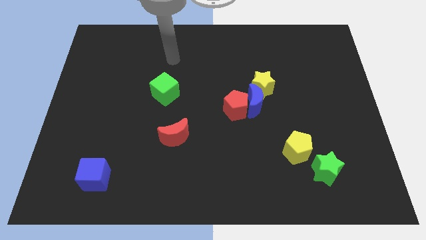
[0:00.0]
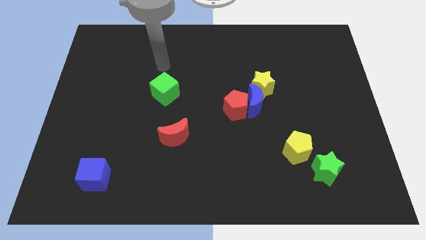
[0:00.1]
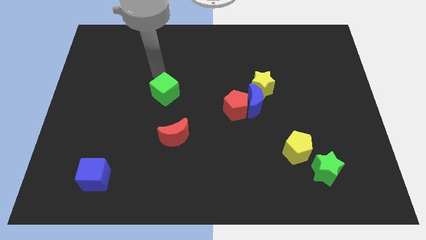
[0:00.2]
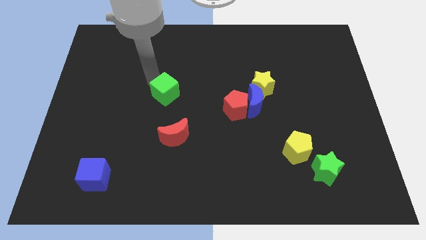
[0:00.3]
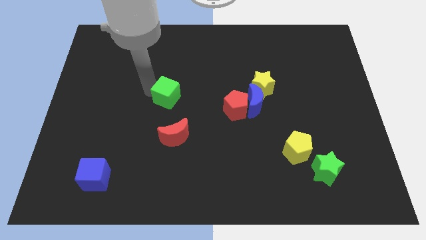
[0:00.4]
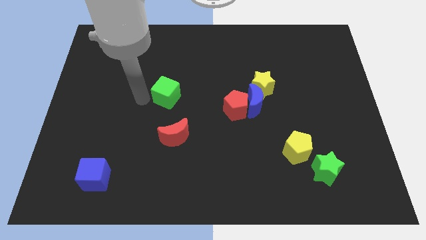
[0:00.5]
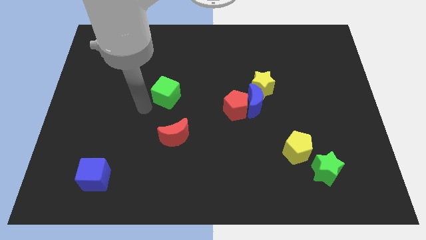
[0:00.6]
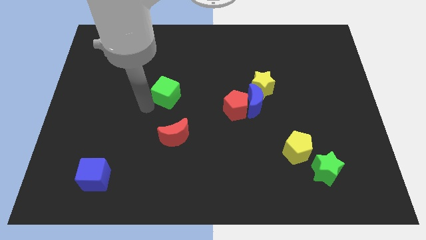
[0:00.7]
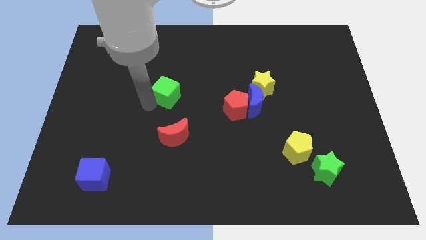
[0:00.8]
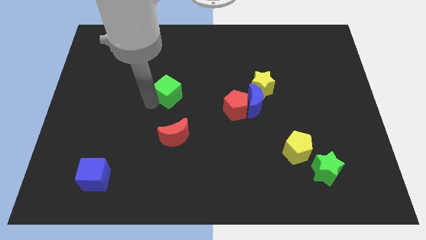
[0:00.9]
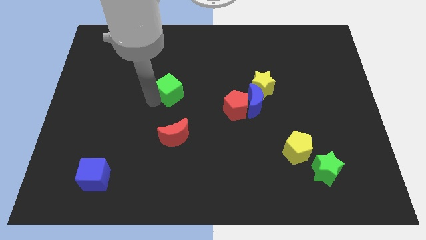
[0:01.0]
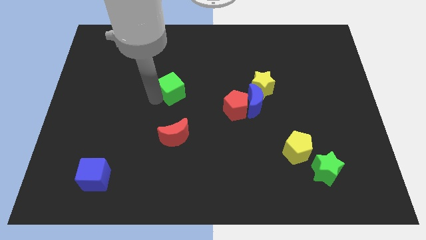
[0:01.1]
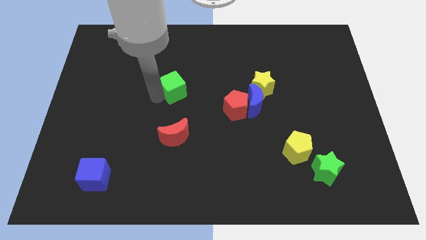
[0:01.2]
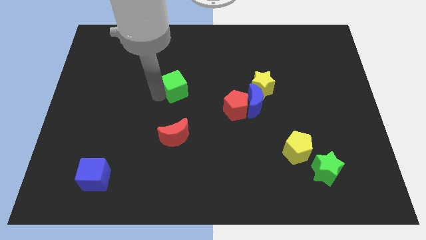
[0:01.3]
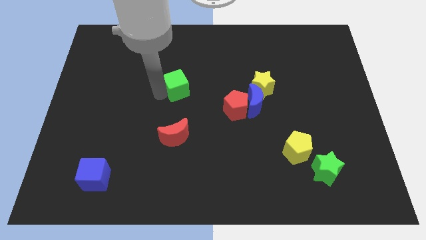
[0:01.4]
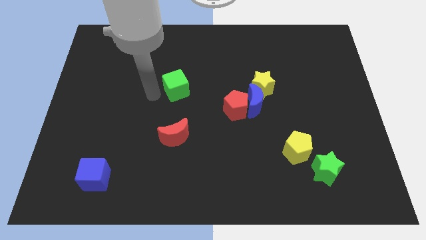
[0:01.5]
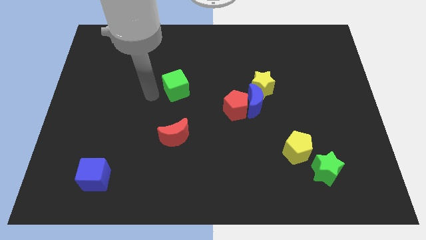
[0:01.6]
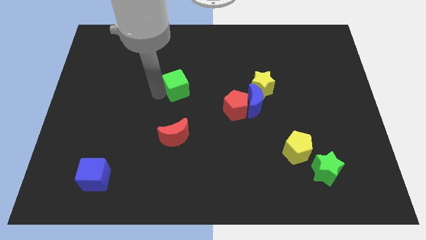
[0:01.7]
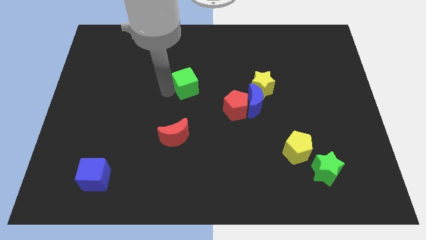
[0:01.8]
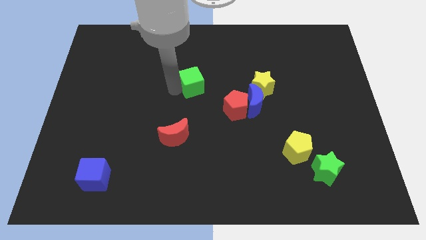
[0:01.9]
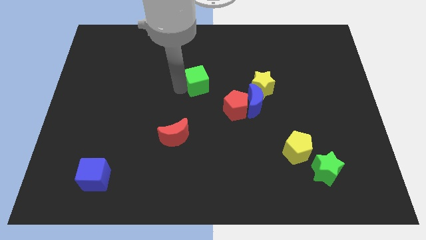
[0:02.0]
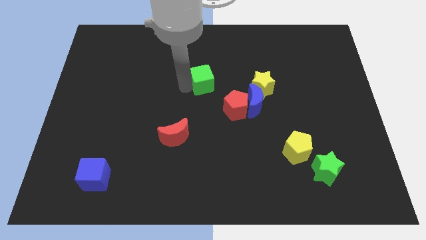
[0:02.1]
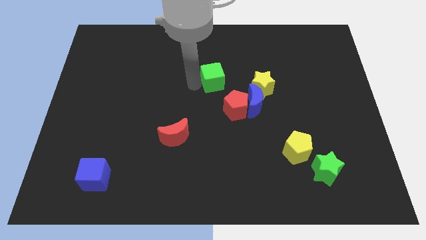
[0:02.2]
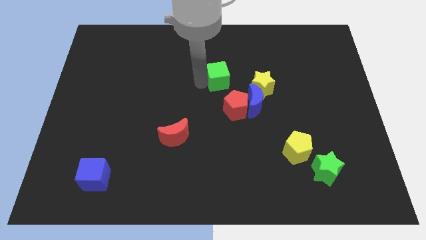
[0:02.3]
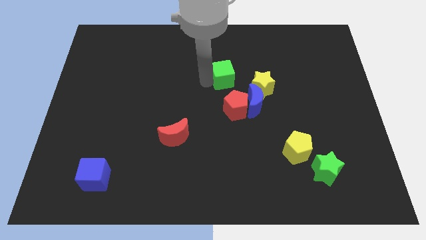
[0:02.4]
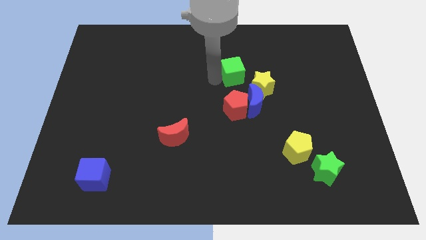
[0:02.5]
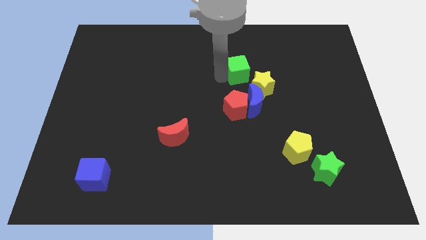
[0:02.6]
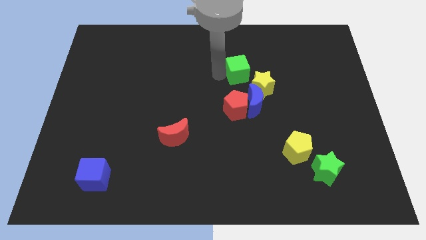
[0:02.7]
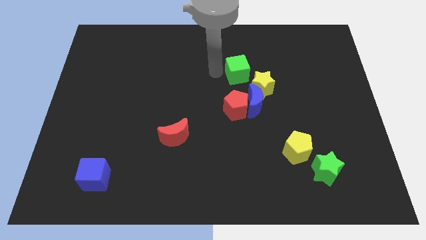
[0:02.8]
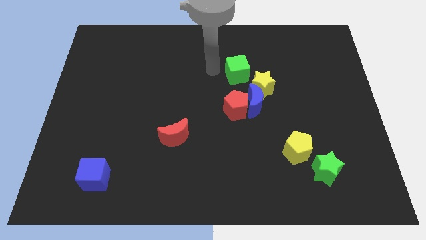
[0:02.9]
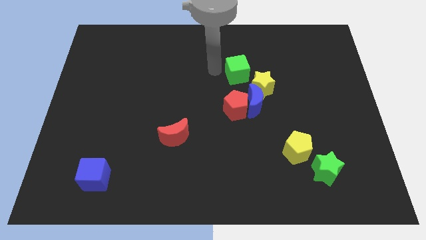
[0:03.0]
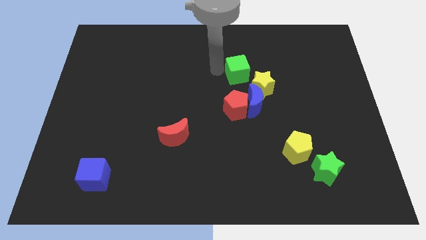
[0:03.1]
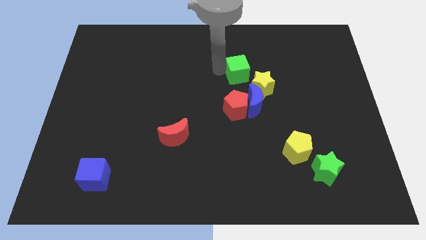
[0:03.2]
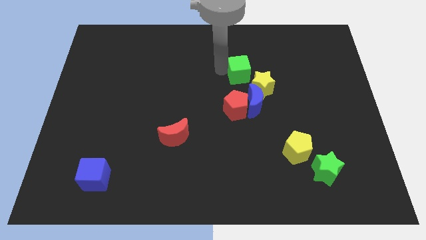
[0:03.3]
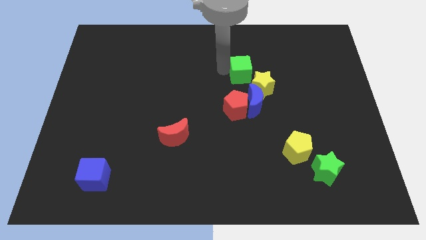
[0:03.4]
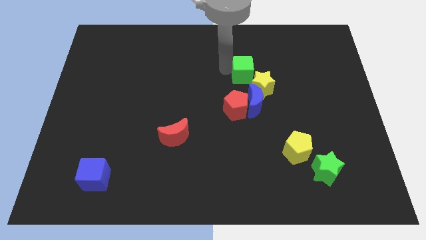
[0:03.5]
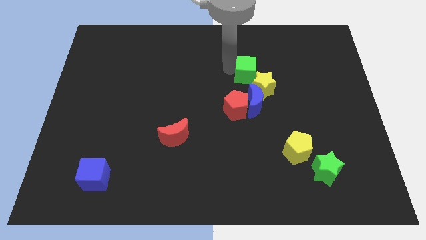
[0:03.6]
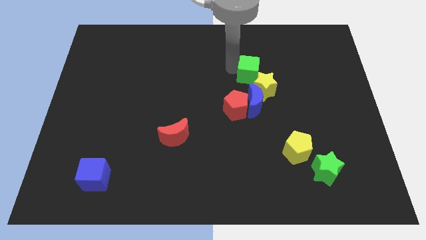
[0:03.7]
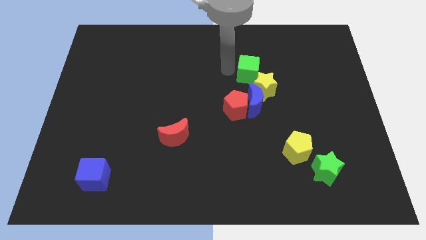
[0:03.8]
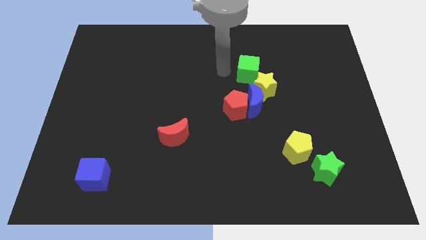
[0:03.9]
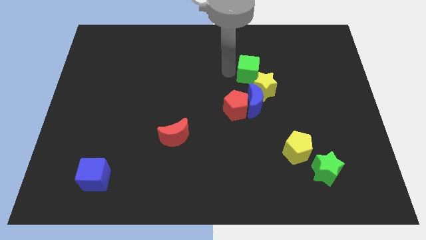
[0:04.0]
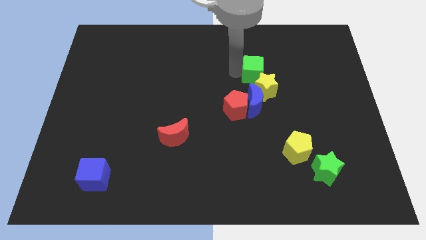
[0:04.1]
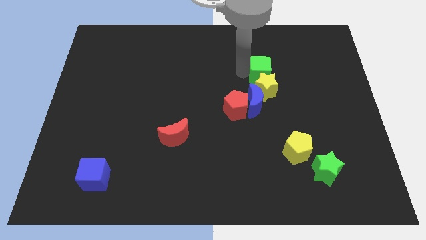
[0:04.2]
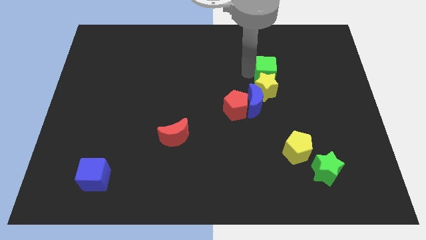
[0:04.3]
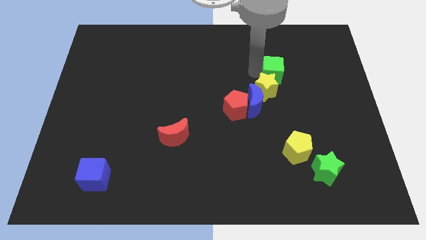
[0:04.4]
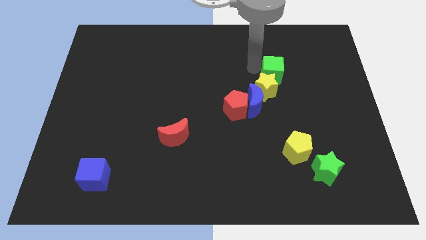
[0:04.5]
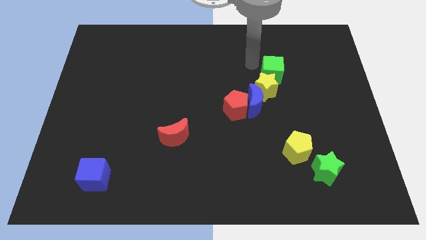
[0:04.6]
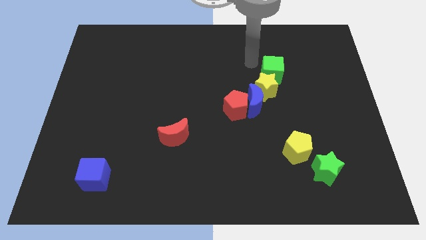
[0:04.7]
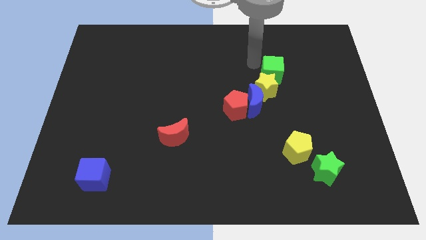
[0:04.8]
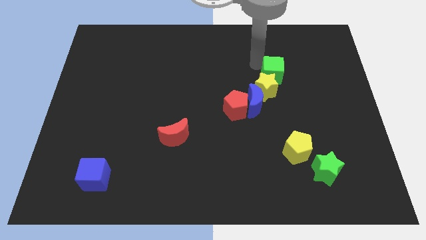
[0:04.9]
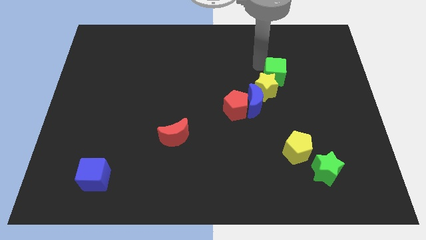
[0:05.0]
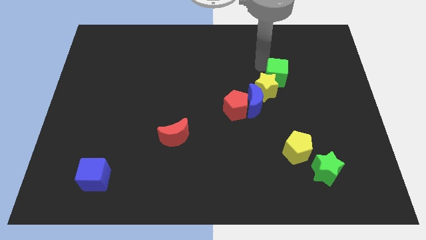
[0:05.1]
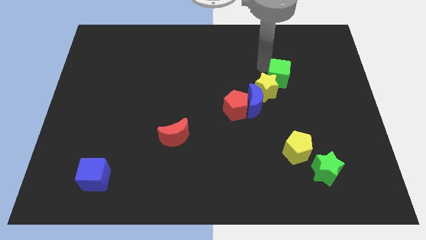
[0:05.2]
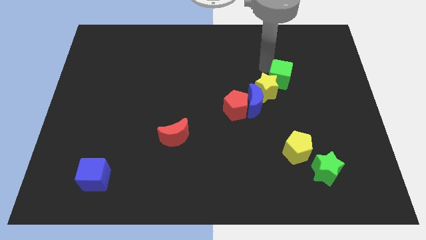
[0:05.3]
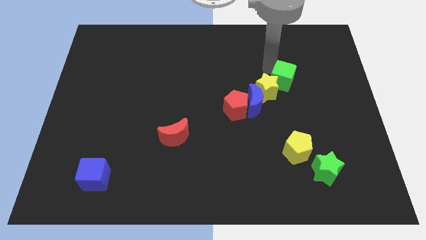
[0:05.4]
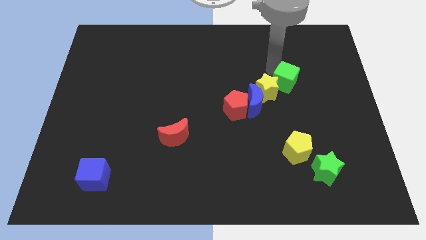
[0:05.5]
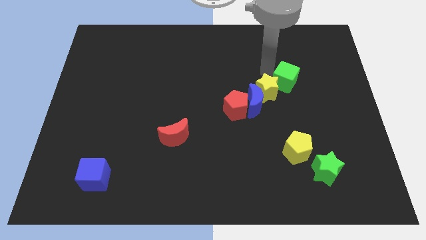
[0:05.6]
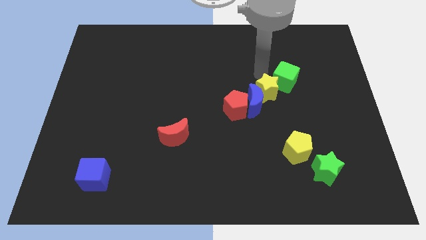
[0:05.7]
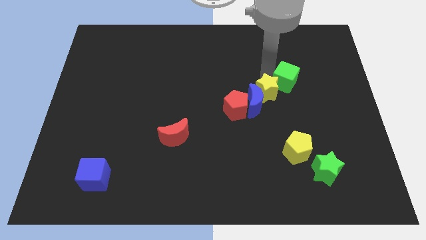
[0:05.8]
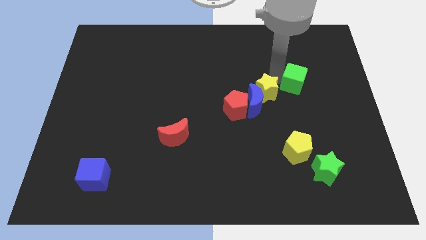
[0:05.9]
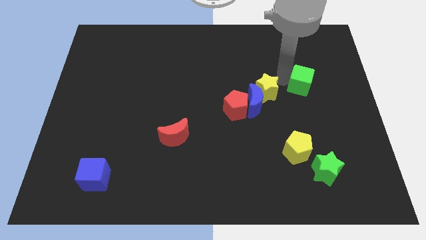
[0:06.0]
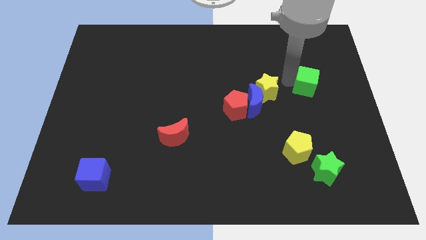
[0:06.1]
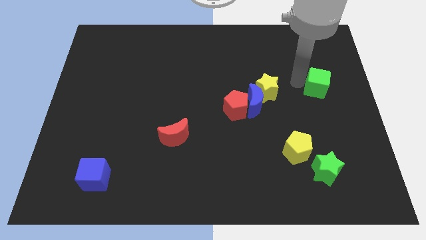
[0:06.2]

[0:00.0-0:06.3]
slide the green cube to the center right
